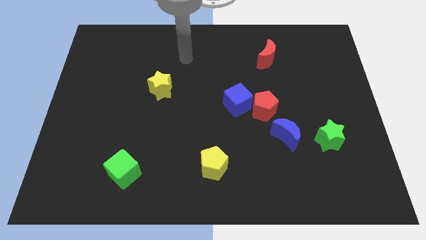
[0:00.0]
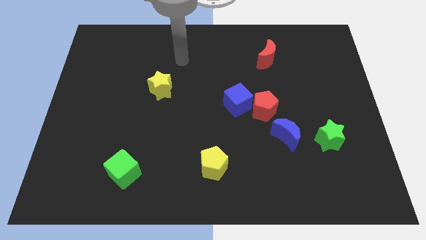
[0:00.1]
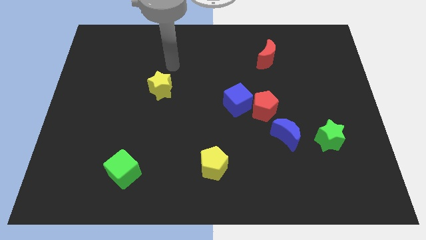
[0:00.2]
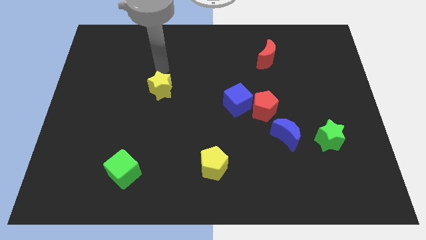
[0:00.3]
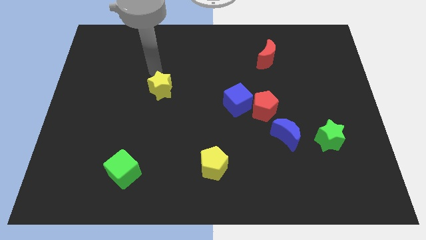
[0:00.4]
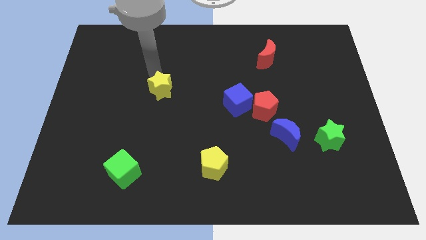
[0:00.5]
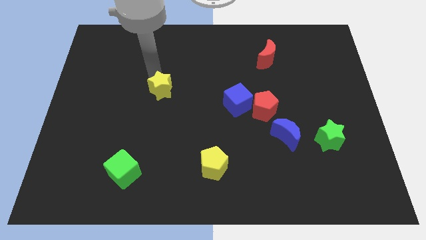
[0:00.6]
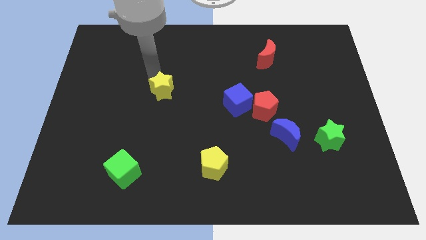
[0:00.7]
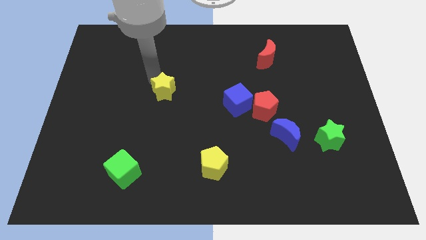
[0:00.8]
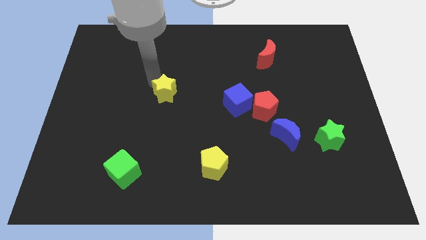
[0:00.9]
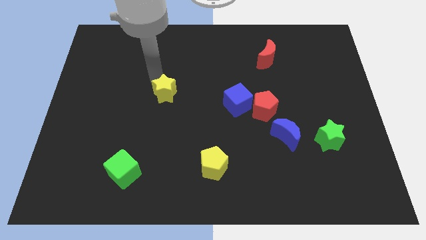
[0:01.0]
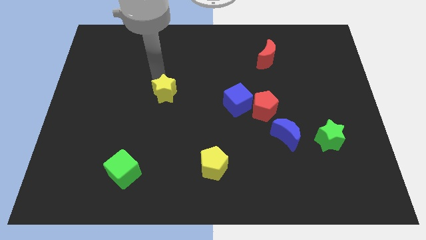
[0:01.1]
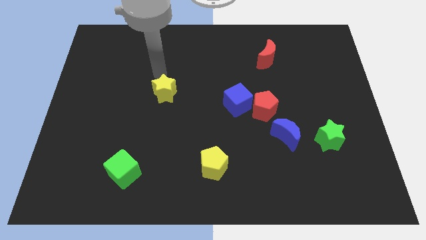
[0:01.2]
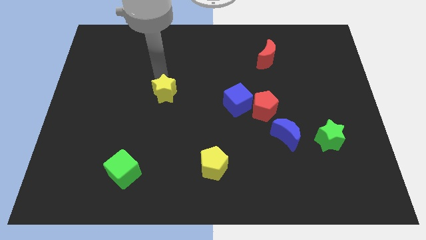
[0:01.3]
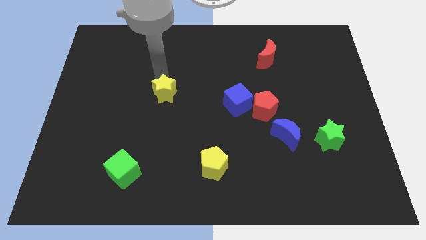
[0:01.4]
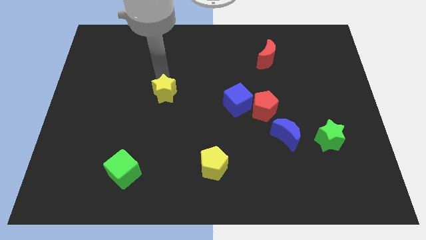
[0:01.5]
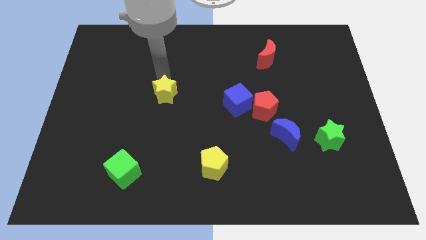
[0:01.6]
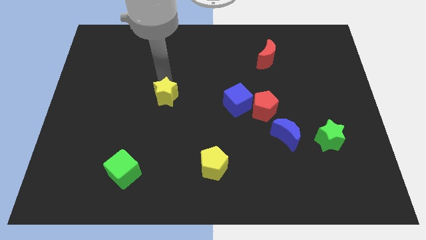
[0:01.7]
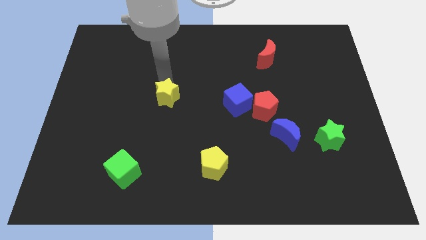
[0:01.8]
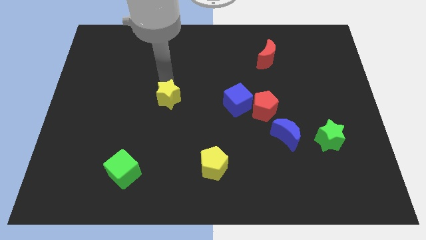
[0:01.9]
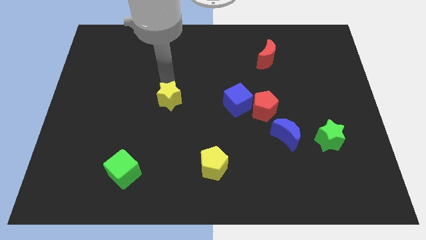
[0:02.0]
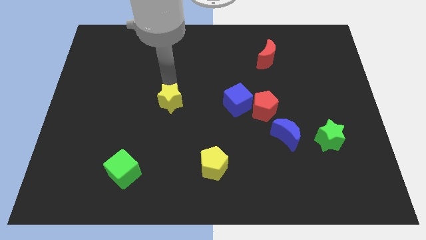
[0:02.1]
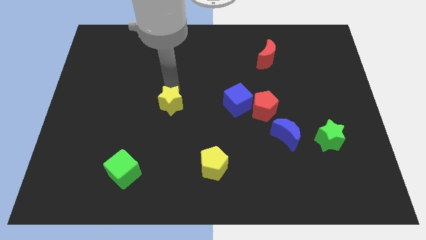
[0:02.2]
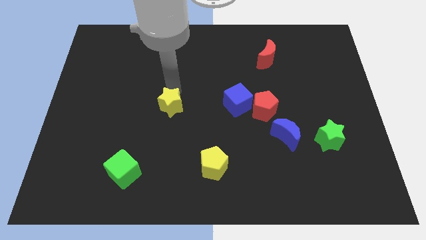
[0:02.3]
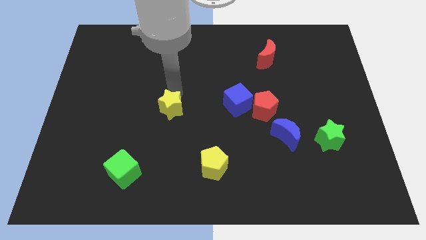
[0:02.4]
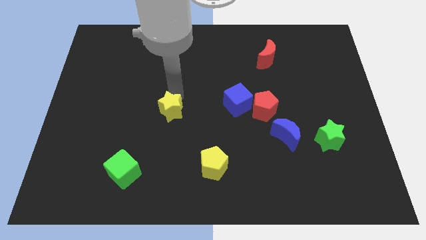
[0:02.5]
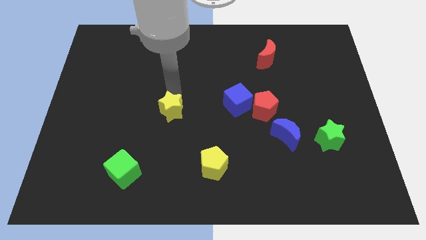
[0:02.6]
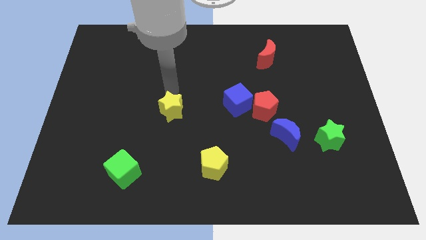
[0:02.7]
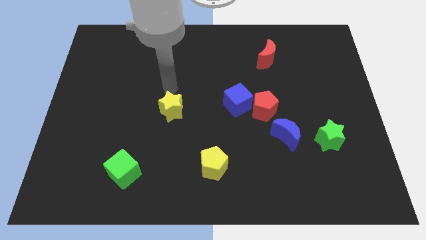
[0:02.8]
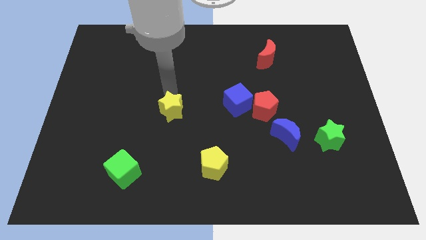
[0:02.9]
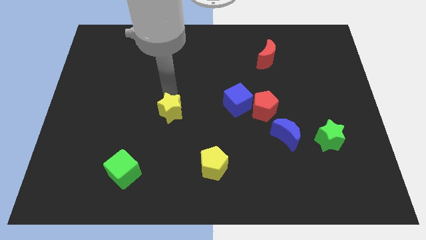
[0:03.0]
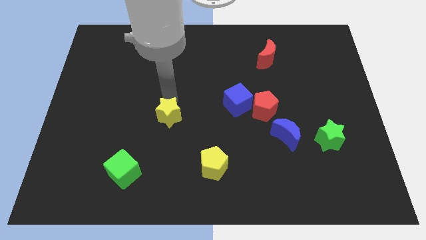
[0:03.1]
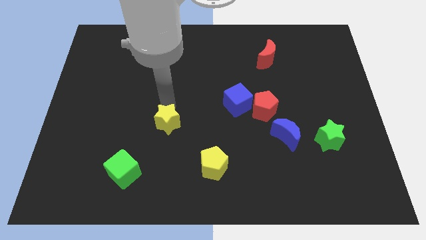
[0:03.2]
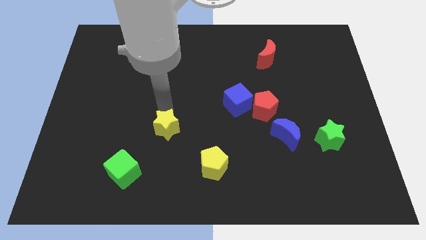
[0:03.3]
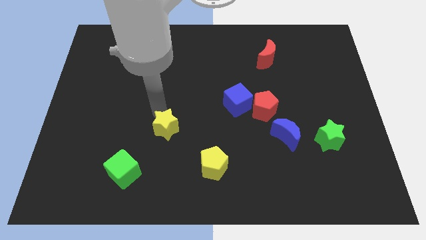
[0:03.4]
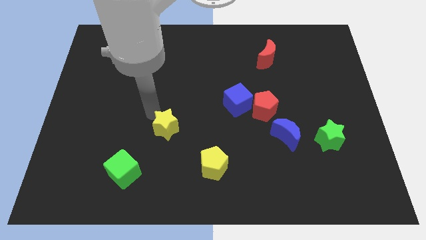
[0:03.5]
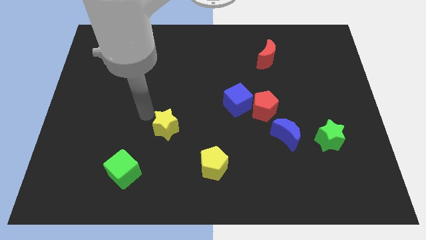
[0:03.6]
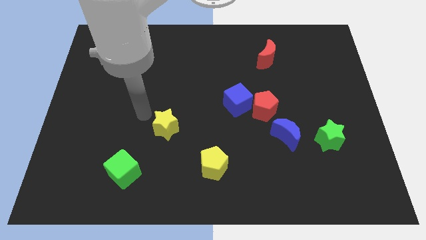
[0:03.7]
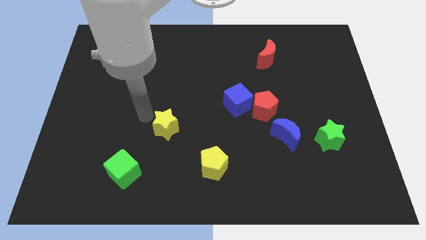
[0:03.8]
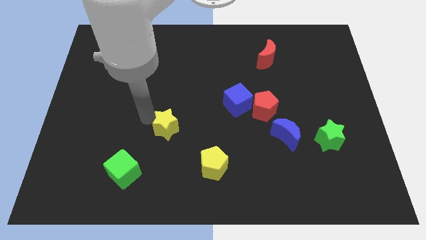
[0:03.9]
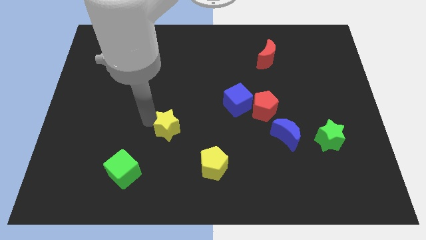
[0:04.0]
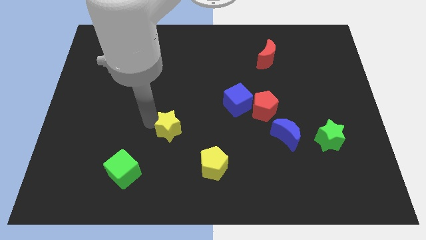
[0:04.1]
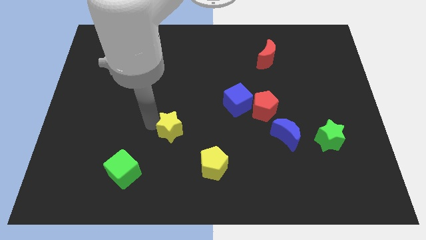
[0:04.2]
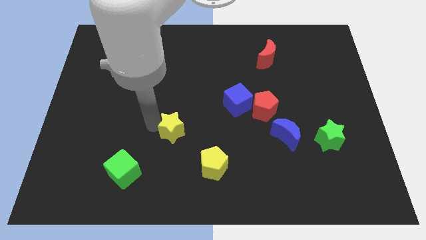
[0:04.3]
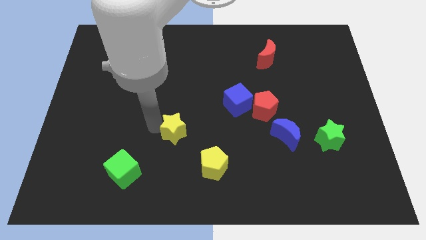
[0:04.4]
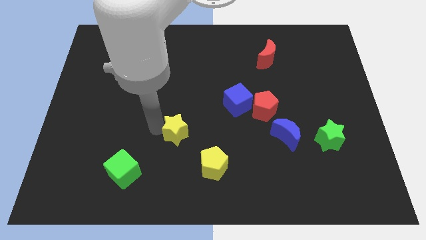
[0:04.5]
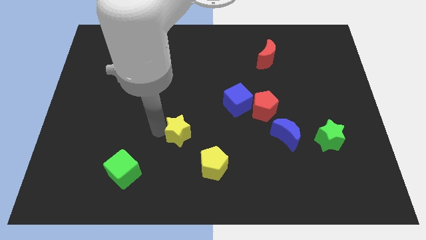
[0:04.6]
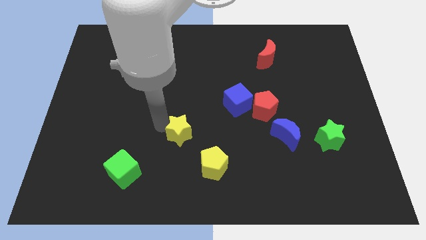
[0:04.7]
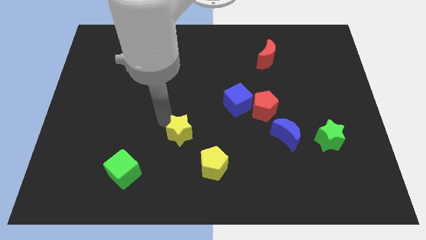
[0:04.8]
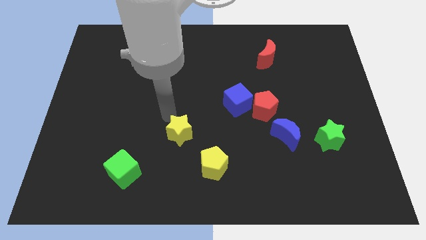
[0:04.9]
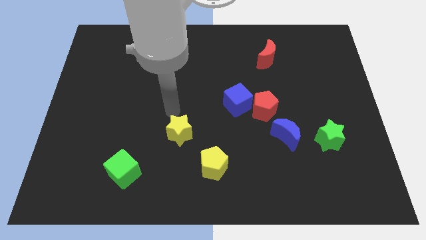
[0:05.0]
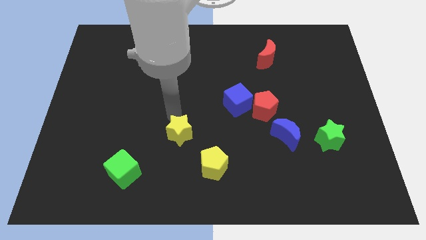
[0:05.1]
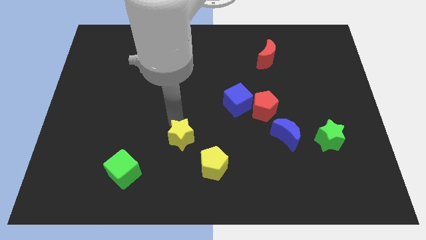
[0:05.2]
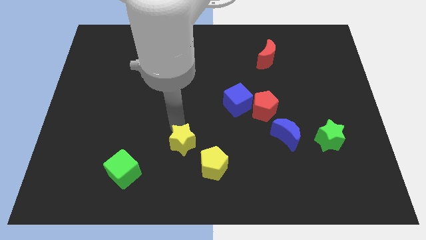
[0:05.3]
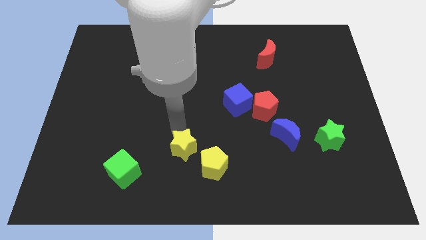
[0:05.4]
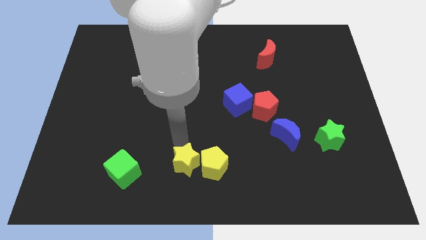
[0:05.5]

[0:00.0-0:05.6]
move the yellow star to the bottom

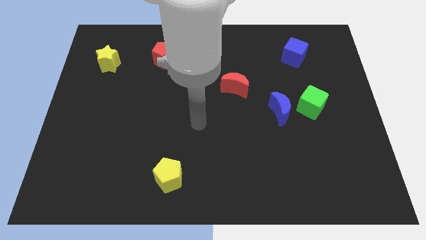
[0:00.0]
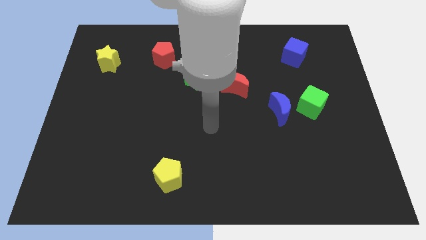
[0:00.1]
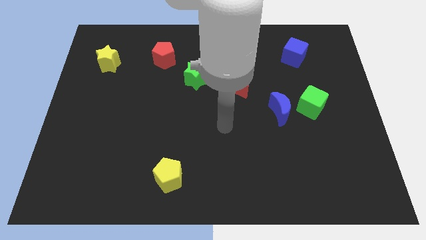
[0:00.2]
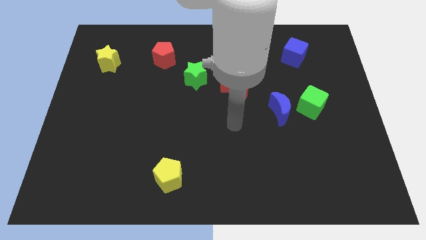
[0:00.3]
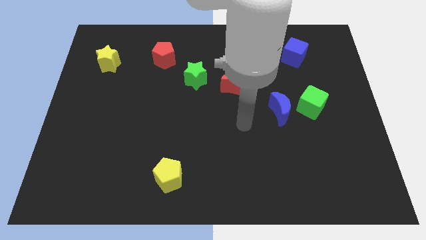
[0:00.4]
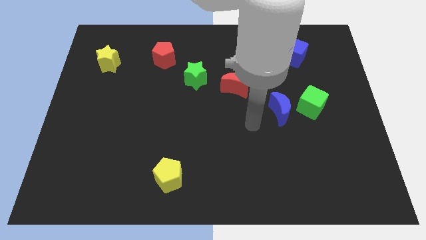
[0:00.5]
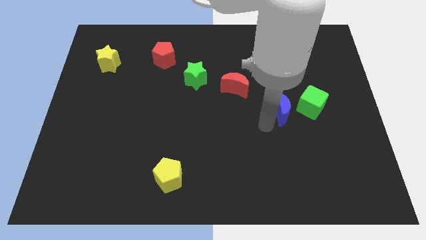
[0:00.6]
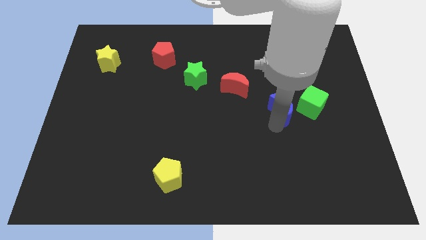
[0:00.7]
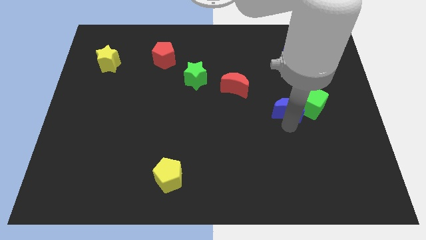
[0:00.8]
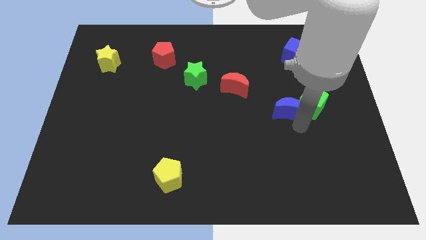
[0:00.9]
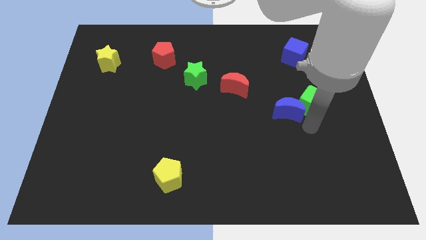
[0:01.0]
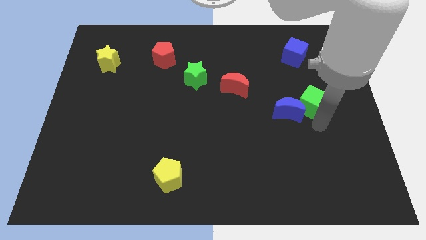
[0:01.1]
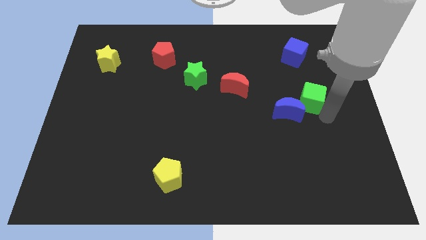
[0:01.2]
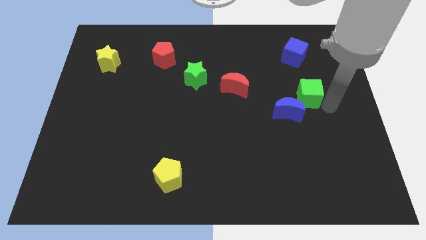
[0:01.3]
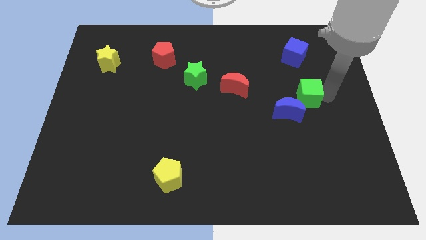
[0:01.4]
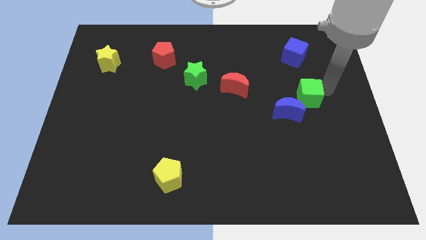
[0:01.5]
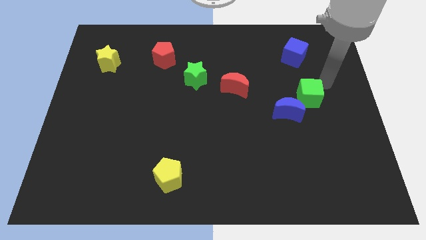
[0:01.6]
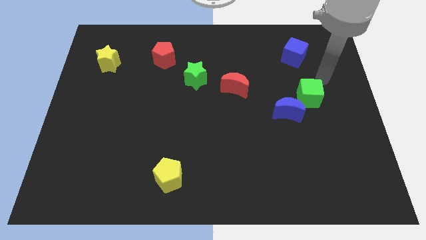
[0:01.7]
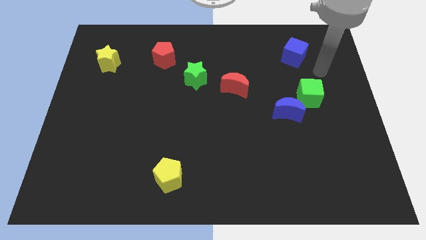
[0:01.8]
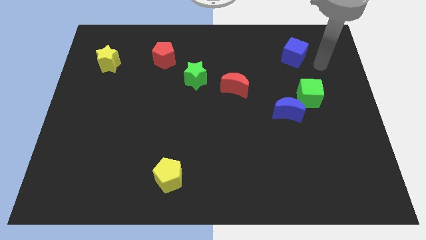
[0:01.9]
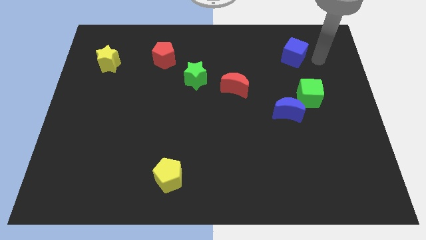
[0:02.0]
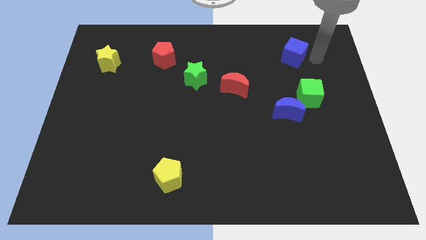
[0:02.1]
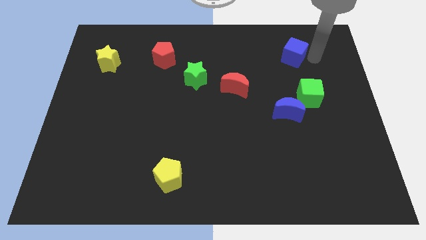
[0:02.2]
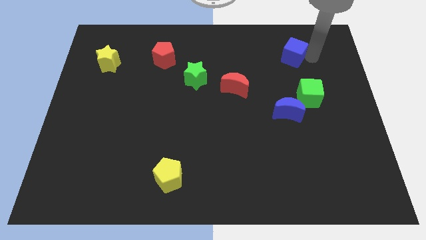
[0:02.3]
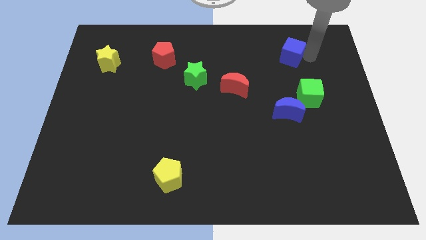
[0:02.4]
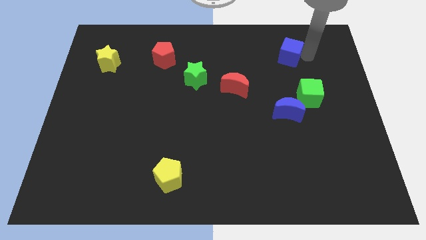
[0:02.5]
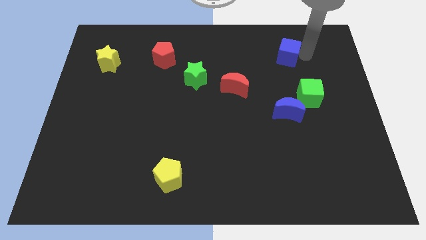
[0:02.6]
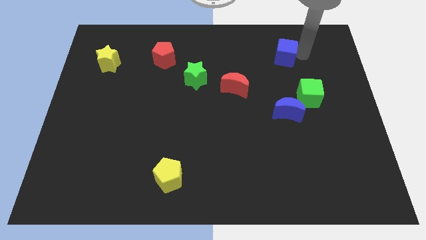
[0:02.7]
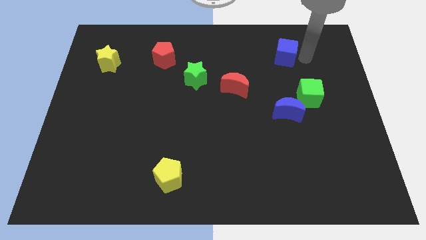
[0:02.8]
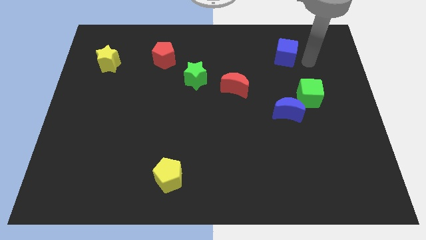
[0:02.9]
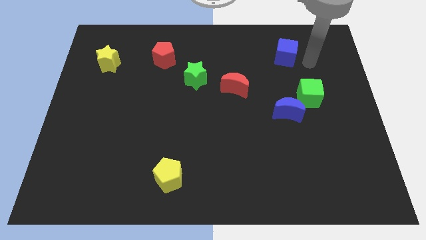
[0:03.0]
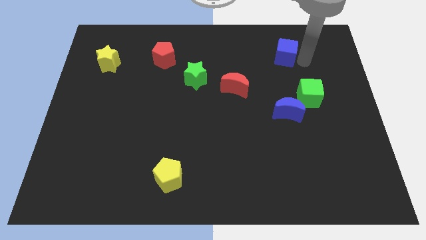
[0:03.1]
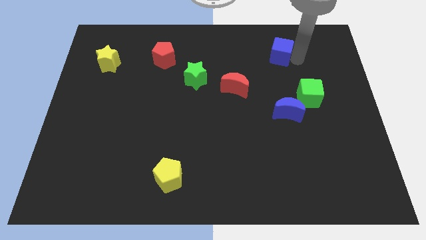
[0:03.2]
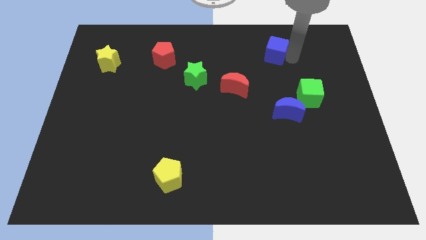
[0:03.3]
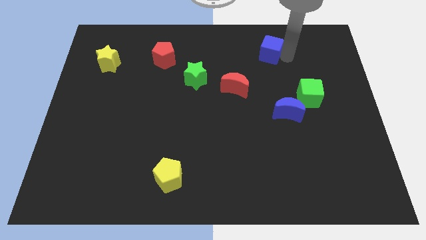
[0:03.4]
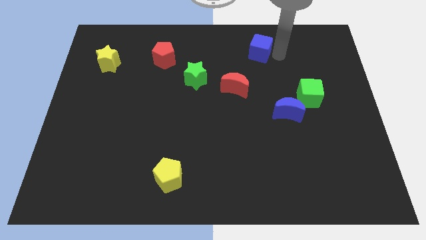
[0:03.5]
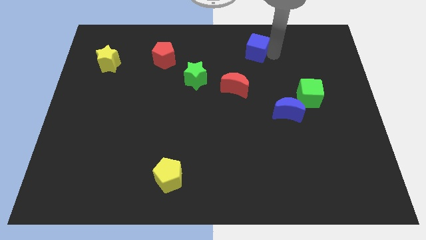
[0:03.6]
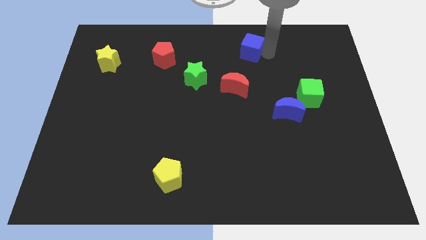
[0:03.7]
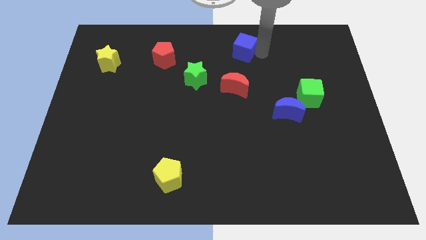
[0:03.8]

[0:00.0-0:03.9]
move the blue cube to the towards your base
